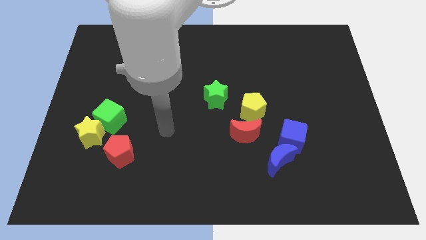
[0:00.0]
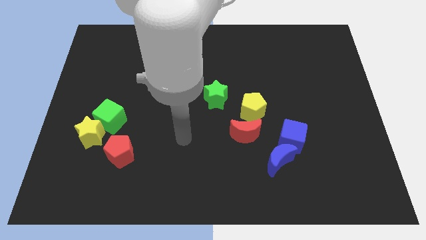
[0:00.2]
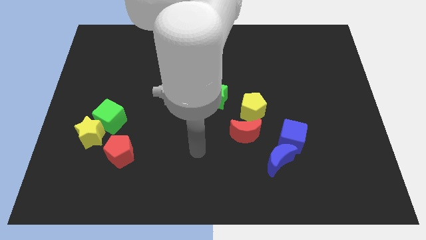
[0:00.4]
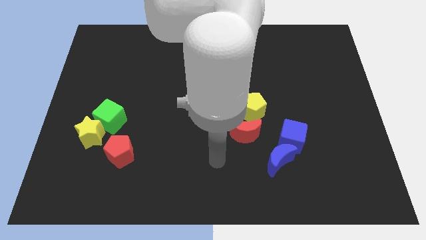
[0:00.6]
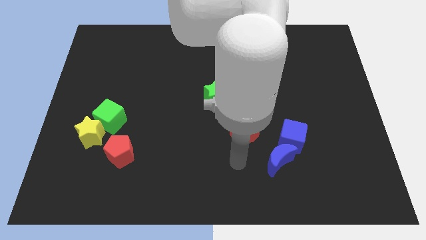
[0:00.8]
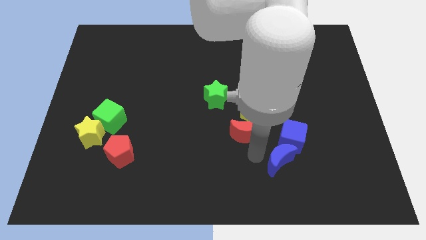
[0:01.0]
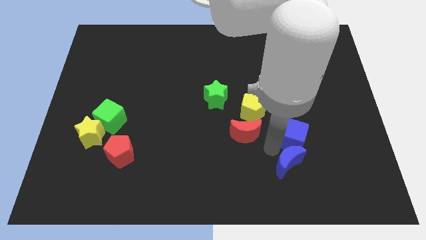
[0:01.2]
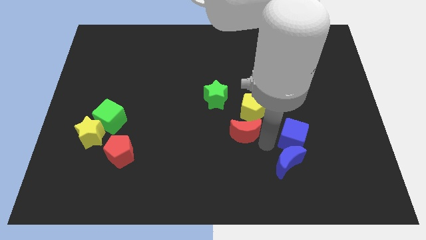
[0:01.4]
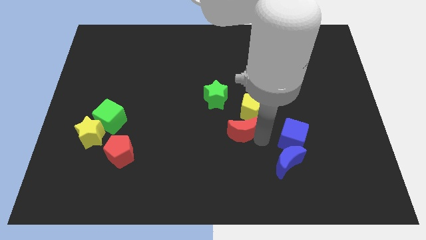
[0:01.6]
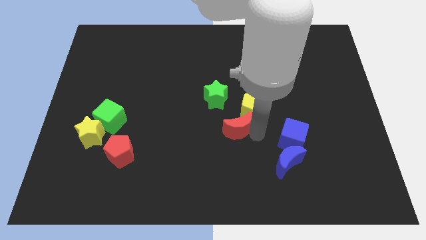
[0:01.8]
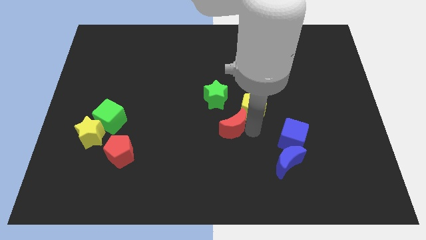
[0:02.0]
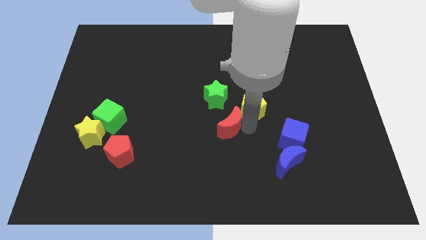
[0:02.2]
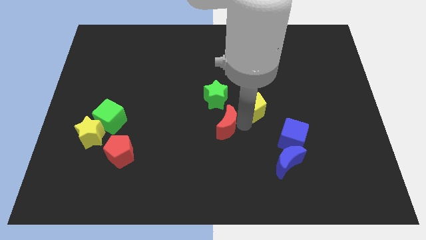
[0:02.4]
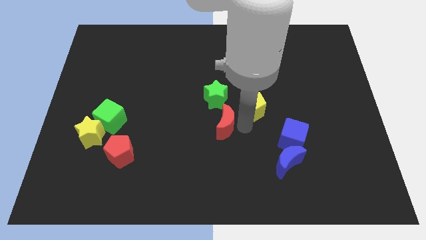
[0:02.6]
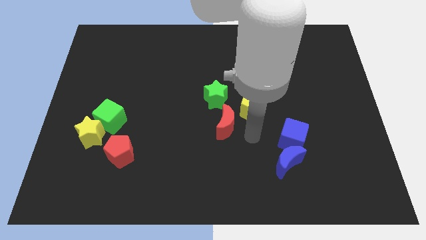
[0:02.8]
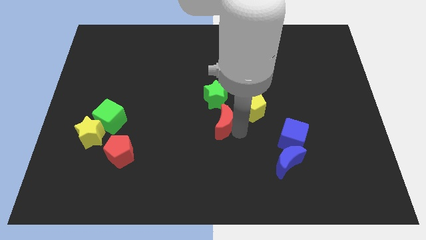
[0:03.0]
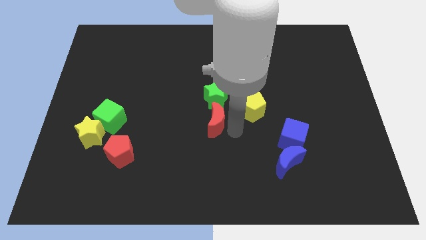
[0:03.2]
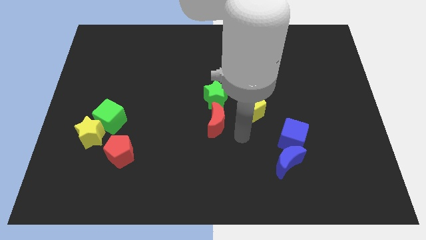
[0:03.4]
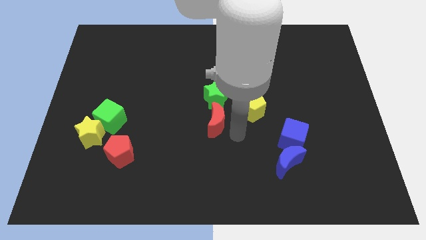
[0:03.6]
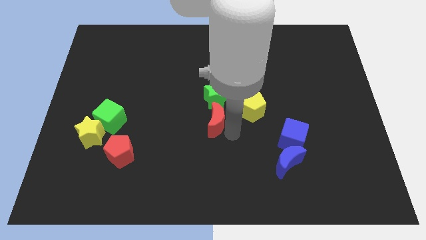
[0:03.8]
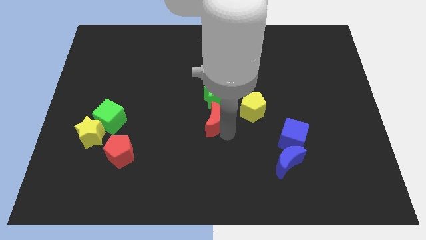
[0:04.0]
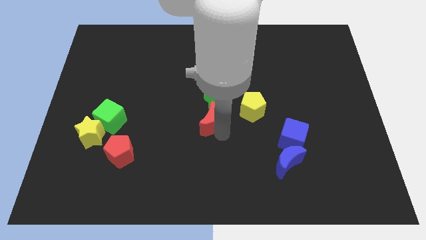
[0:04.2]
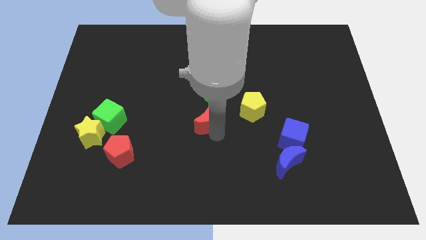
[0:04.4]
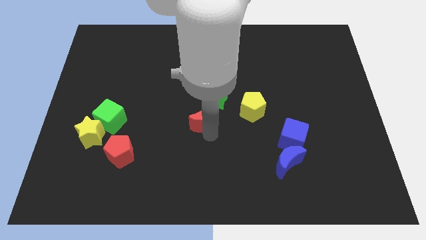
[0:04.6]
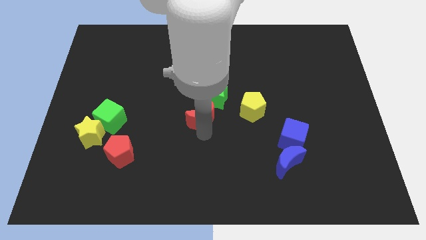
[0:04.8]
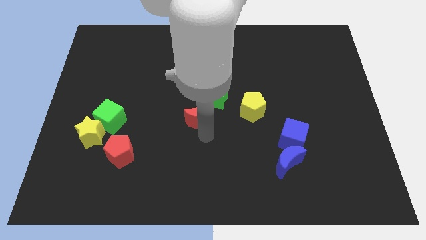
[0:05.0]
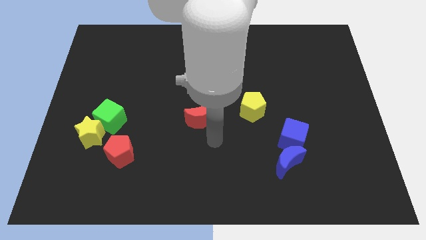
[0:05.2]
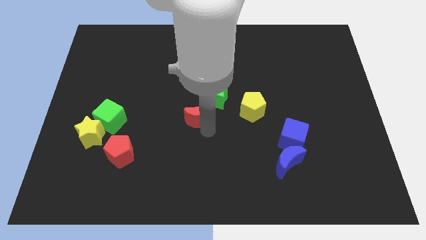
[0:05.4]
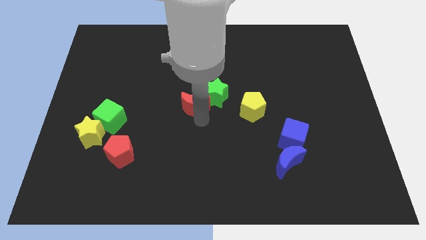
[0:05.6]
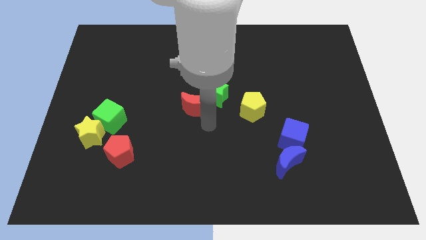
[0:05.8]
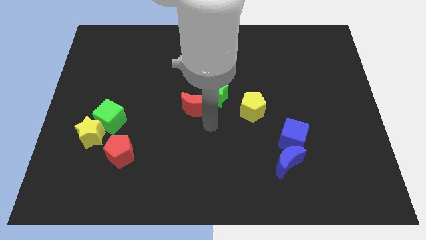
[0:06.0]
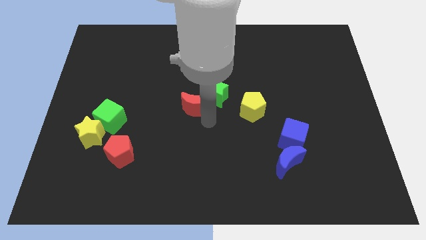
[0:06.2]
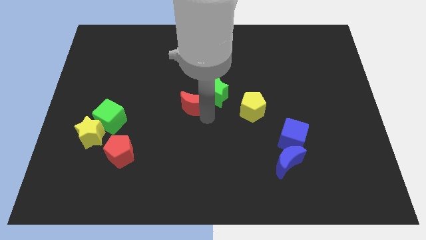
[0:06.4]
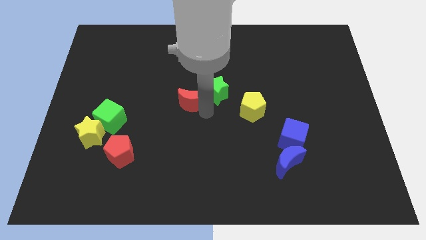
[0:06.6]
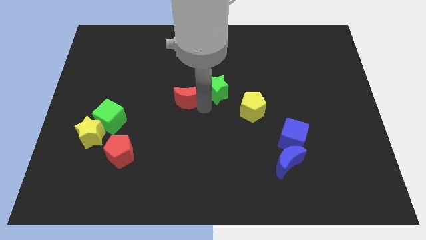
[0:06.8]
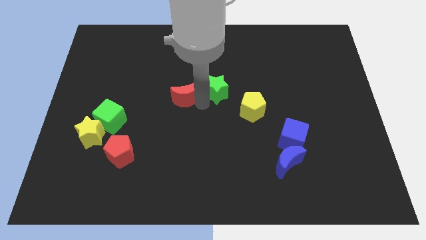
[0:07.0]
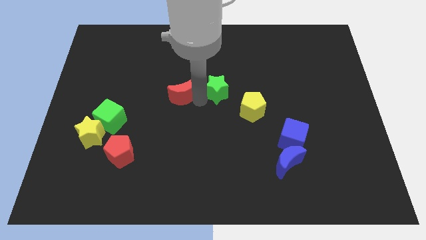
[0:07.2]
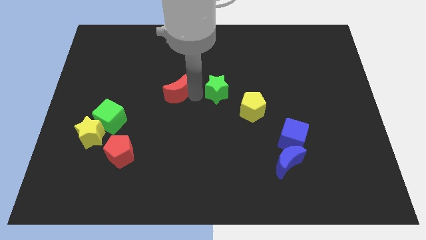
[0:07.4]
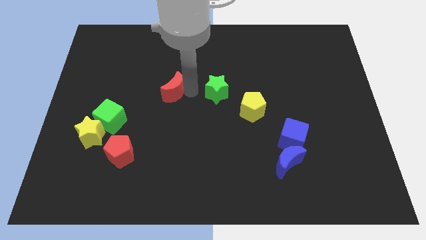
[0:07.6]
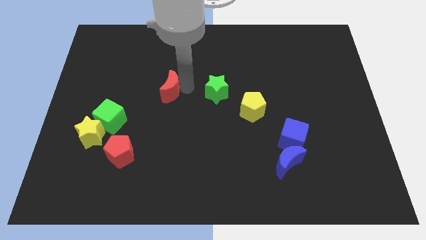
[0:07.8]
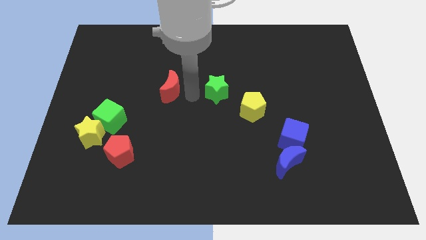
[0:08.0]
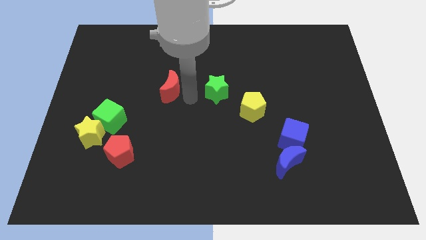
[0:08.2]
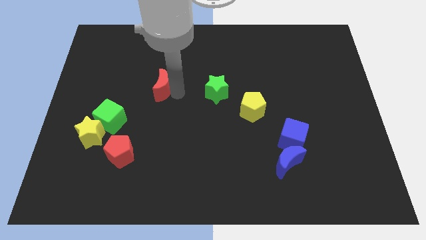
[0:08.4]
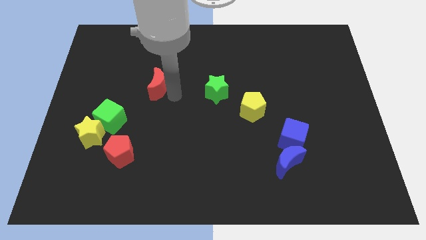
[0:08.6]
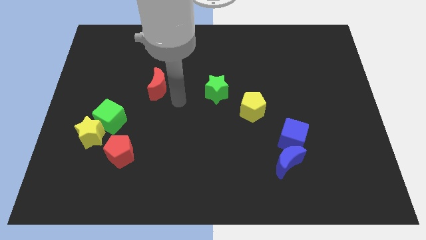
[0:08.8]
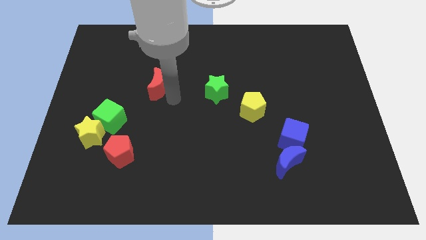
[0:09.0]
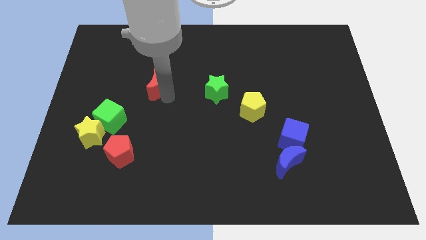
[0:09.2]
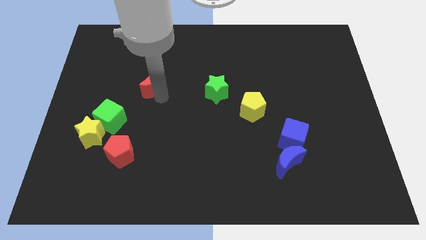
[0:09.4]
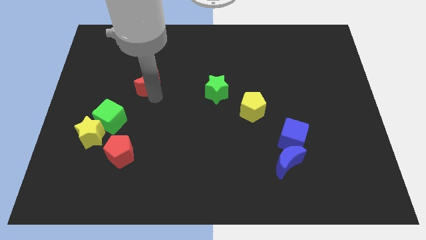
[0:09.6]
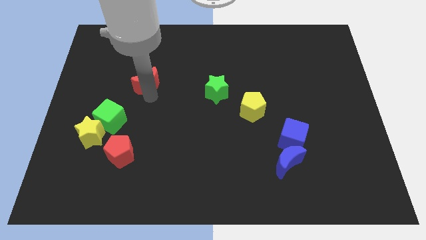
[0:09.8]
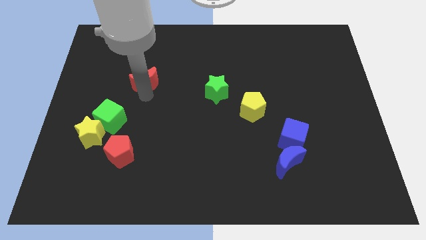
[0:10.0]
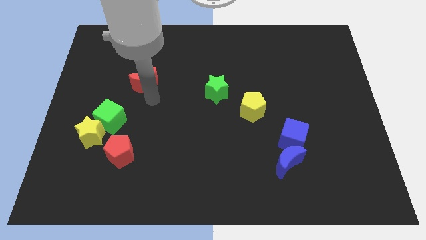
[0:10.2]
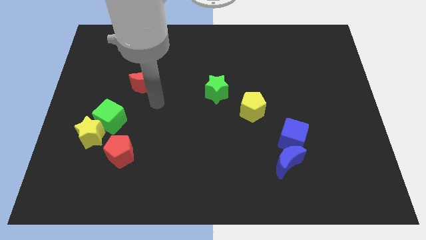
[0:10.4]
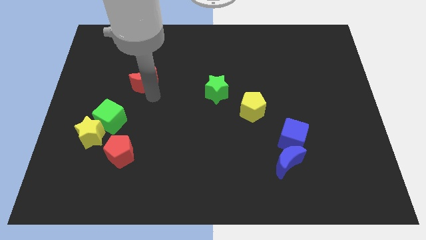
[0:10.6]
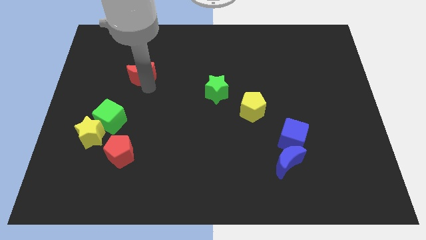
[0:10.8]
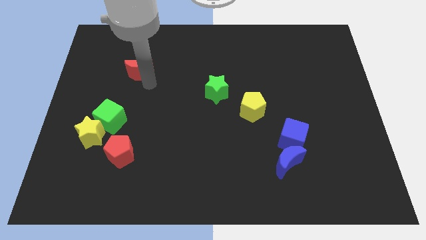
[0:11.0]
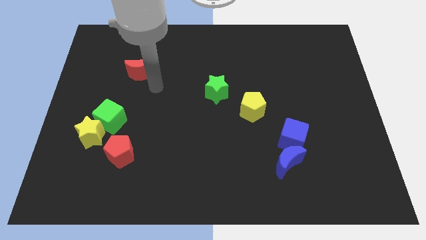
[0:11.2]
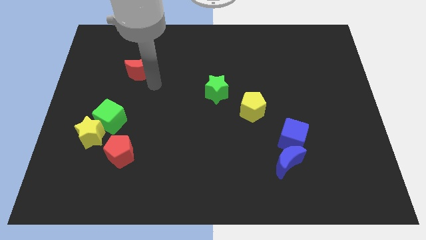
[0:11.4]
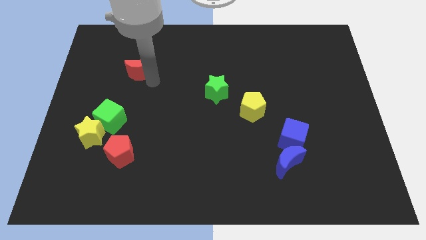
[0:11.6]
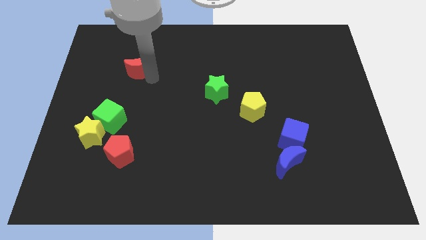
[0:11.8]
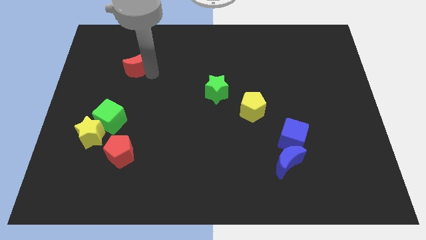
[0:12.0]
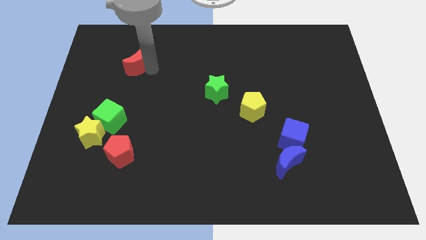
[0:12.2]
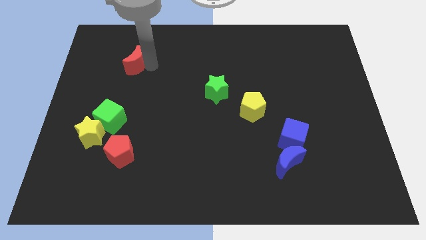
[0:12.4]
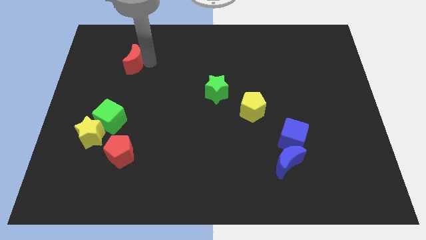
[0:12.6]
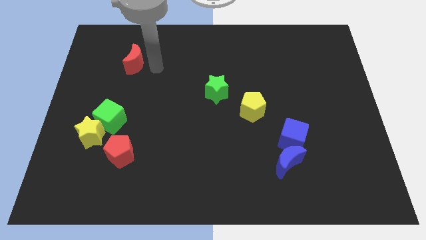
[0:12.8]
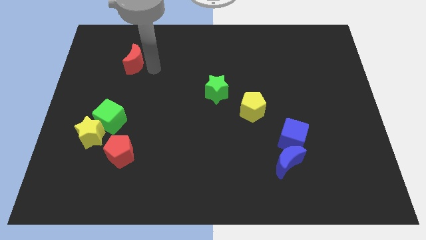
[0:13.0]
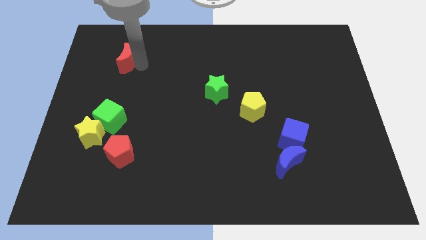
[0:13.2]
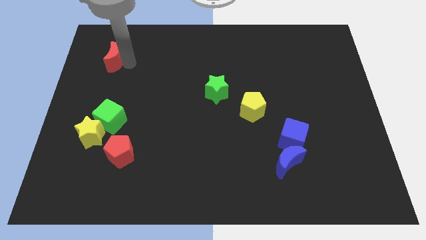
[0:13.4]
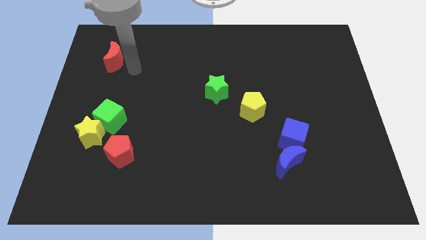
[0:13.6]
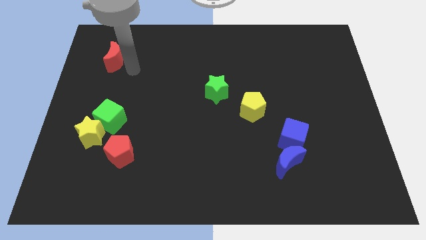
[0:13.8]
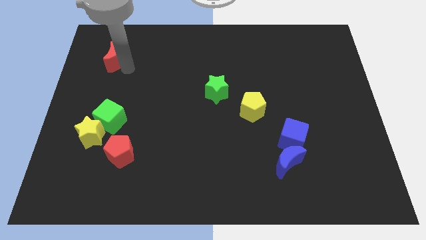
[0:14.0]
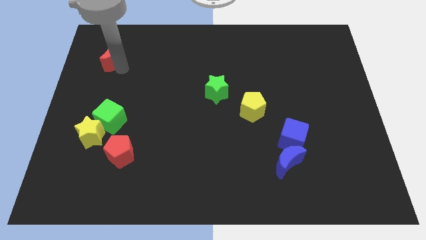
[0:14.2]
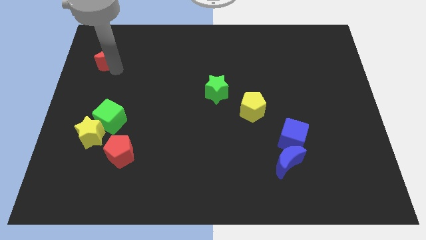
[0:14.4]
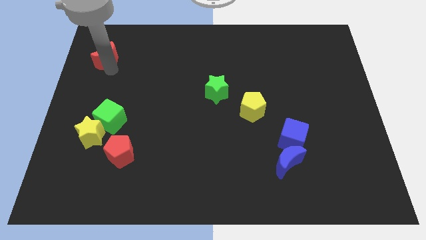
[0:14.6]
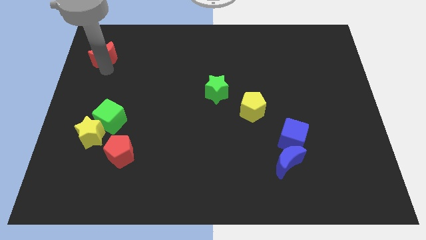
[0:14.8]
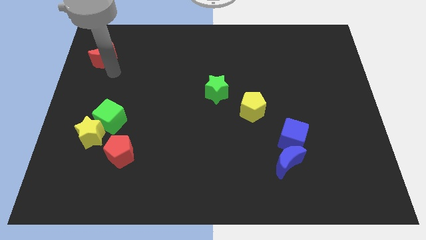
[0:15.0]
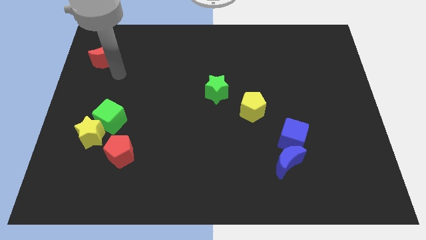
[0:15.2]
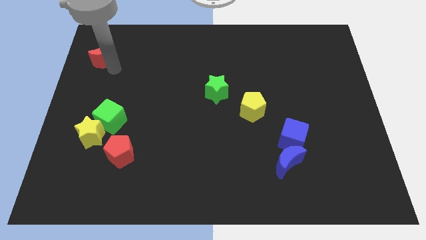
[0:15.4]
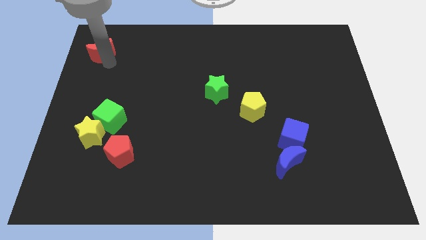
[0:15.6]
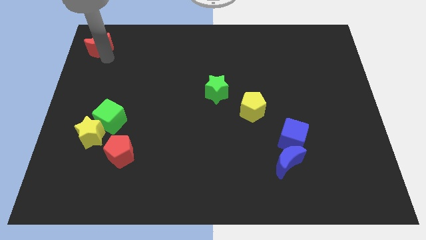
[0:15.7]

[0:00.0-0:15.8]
slide the red moon to the top left corner
